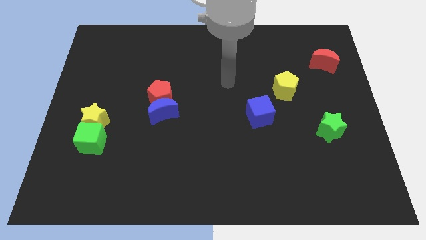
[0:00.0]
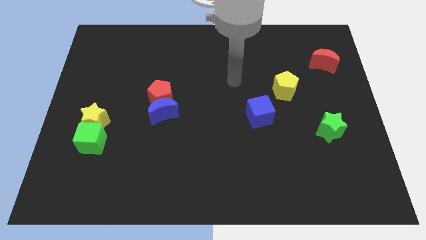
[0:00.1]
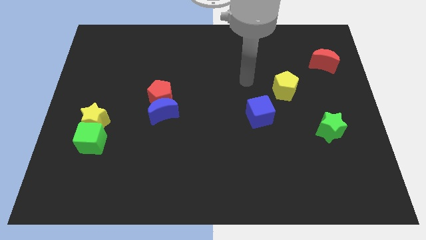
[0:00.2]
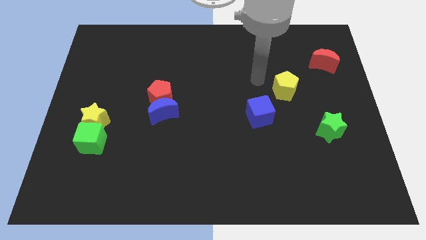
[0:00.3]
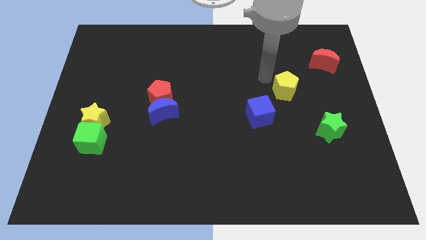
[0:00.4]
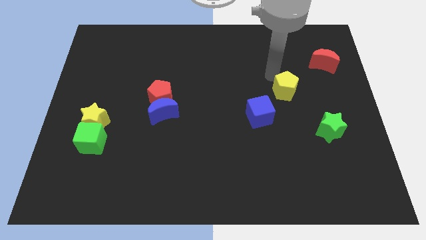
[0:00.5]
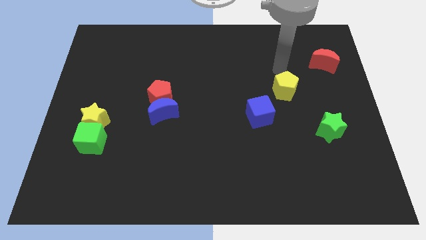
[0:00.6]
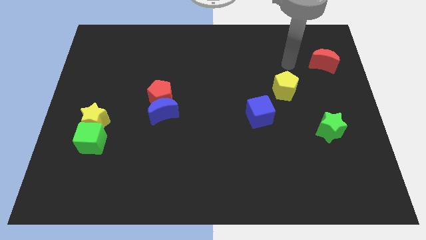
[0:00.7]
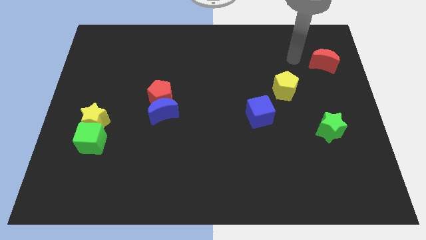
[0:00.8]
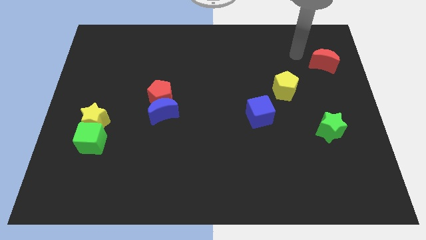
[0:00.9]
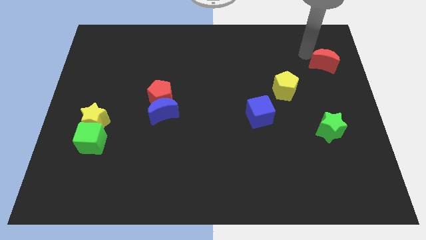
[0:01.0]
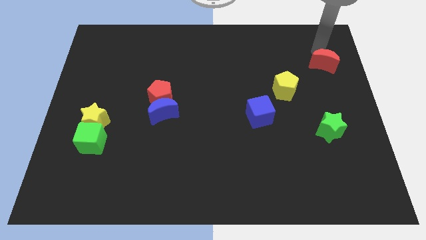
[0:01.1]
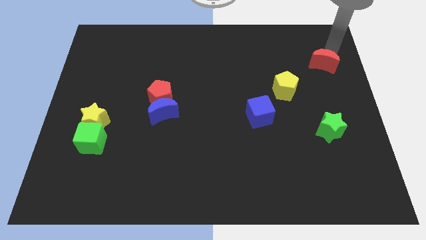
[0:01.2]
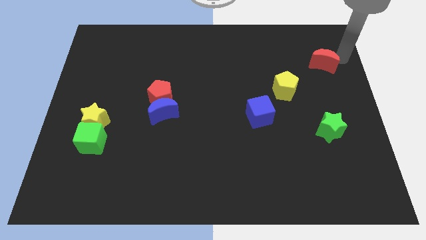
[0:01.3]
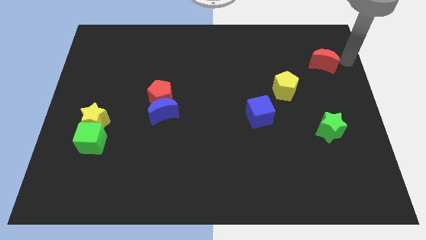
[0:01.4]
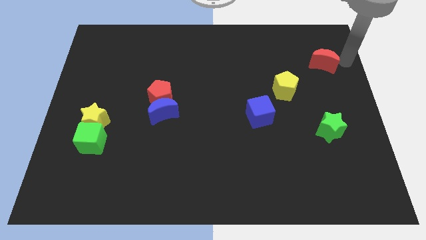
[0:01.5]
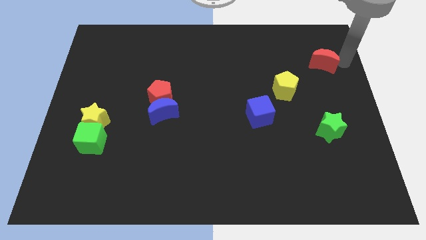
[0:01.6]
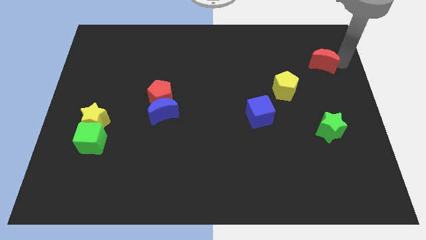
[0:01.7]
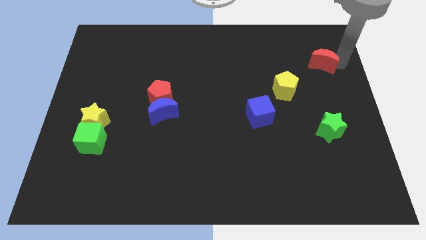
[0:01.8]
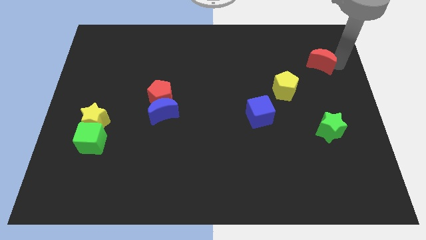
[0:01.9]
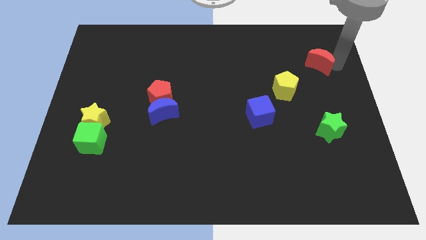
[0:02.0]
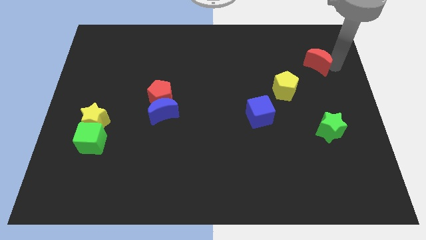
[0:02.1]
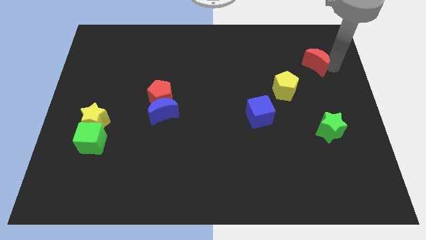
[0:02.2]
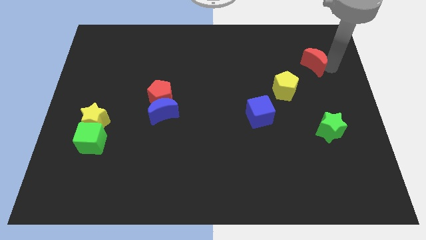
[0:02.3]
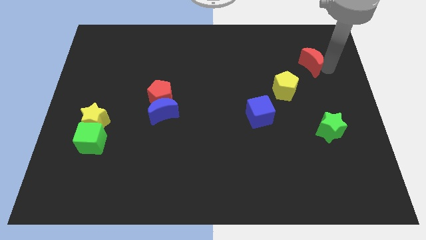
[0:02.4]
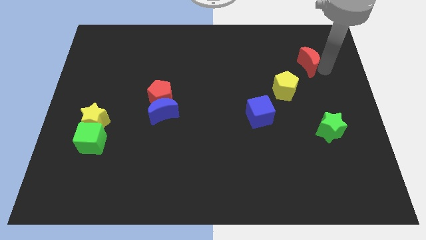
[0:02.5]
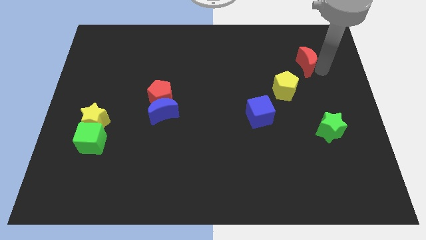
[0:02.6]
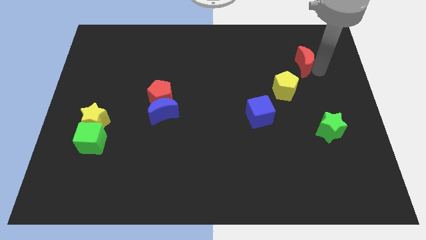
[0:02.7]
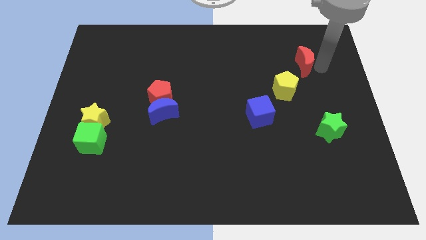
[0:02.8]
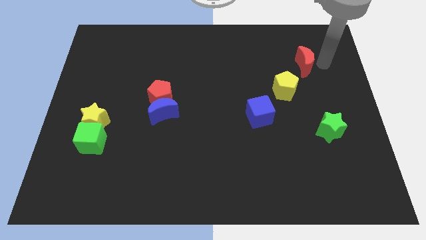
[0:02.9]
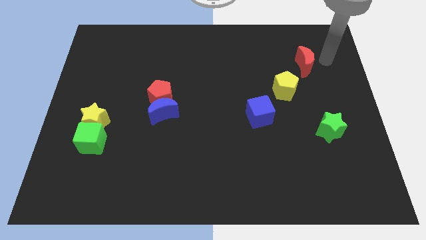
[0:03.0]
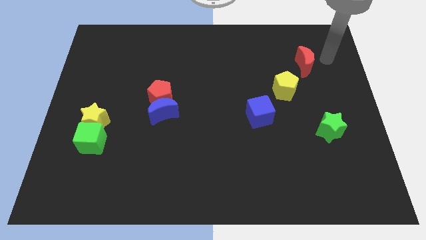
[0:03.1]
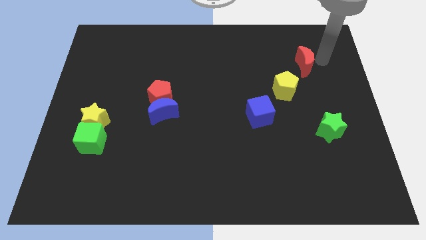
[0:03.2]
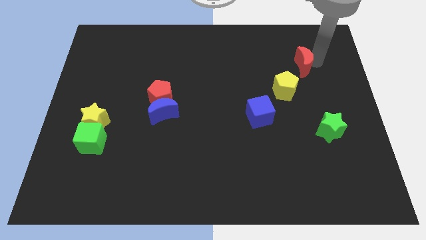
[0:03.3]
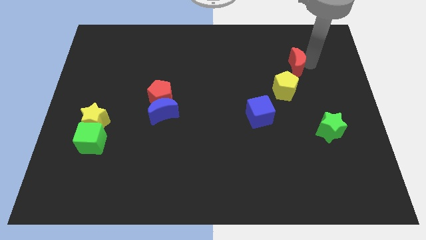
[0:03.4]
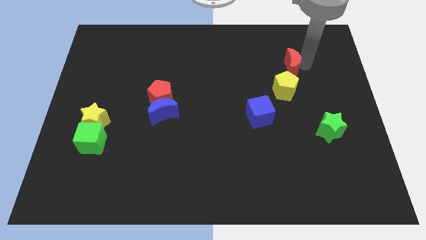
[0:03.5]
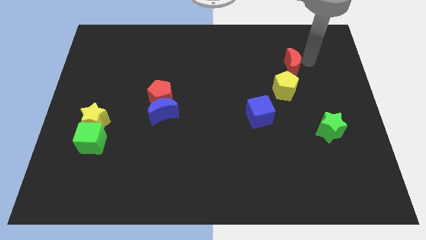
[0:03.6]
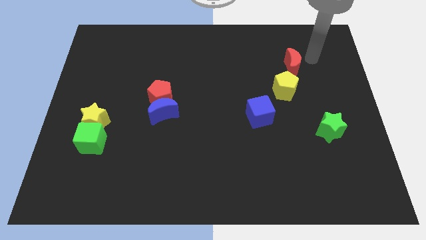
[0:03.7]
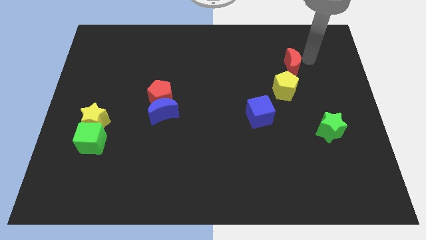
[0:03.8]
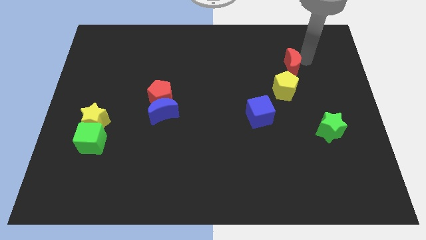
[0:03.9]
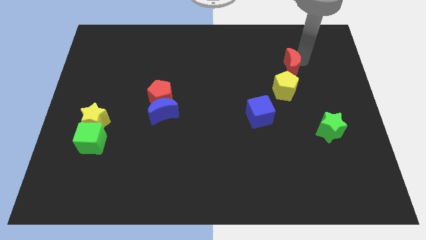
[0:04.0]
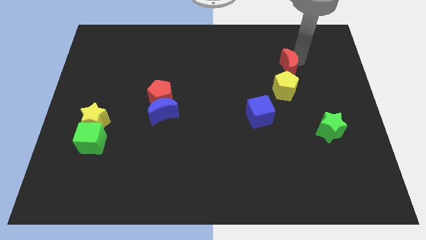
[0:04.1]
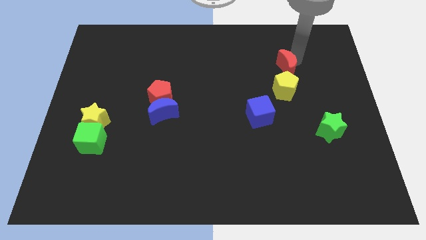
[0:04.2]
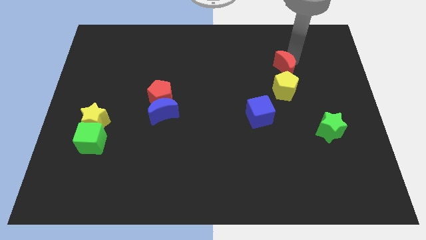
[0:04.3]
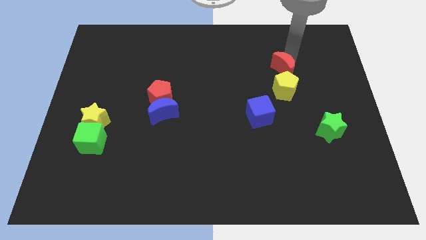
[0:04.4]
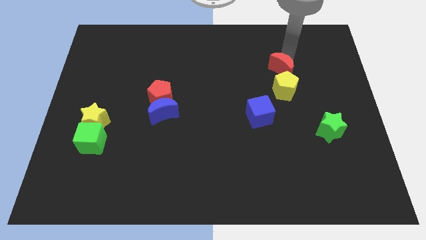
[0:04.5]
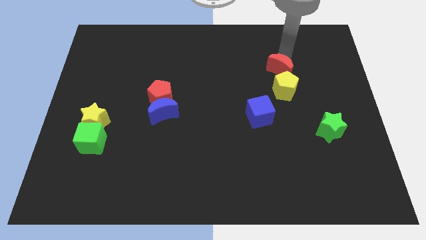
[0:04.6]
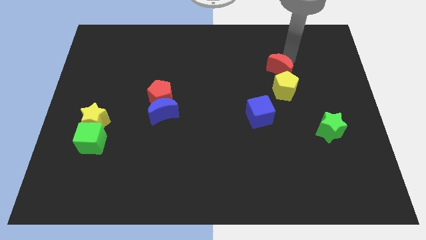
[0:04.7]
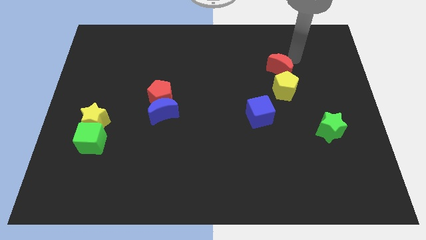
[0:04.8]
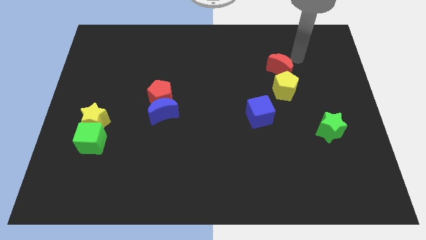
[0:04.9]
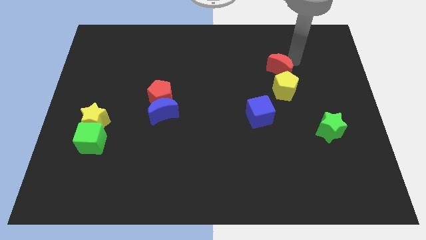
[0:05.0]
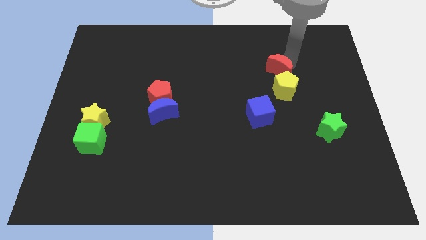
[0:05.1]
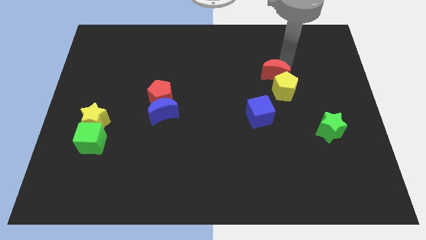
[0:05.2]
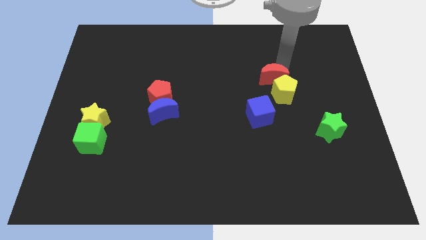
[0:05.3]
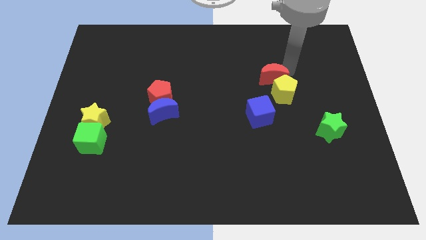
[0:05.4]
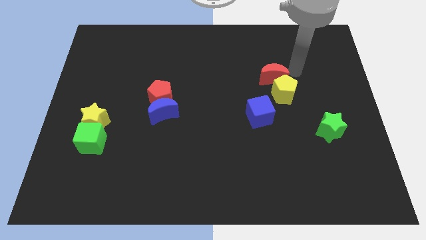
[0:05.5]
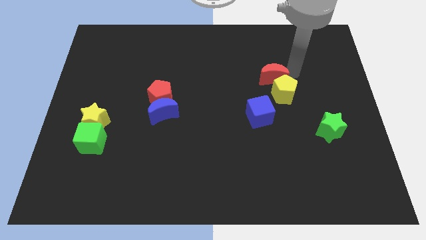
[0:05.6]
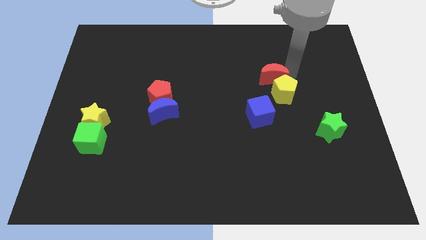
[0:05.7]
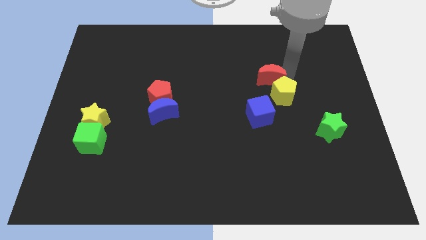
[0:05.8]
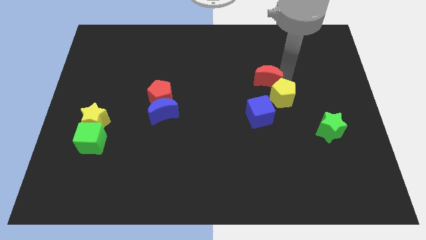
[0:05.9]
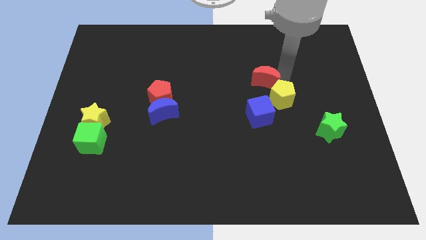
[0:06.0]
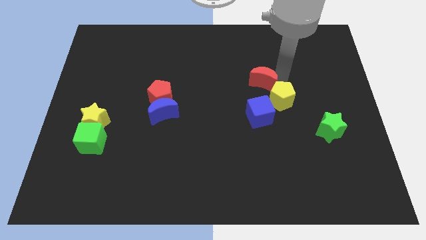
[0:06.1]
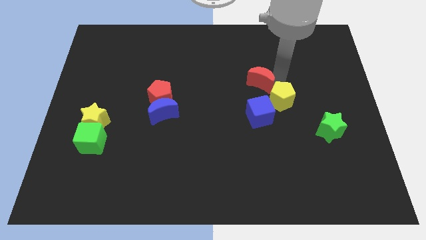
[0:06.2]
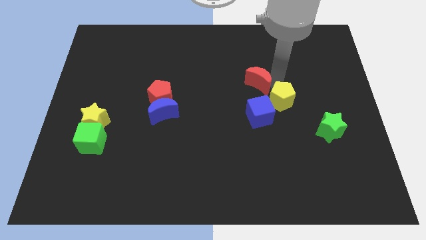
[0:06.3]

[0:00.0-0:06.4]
push the red moon to the center of the board

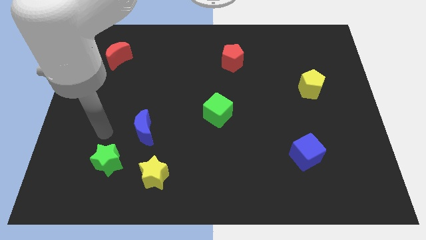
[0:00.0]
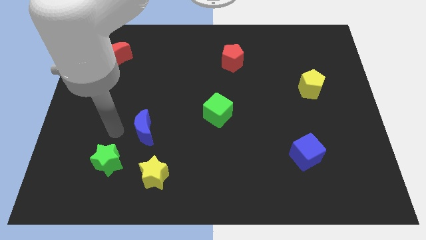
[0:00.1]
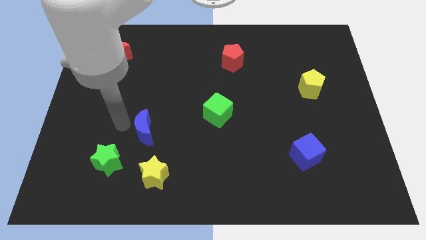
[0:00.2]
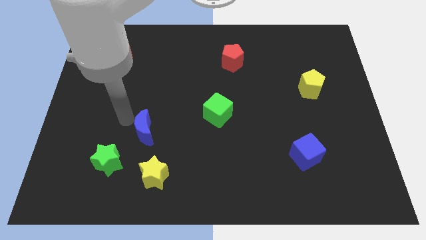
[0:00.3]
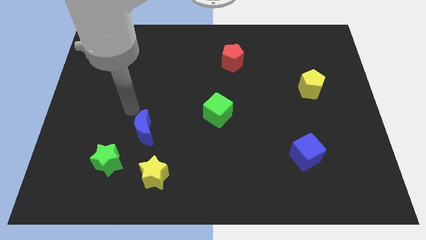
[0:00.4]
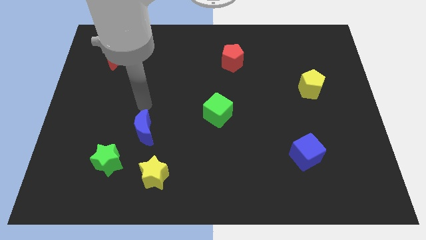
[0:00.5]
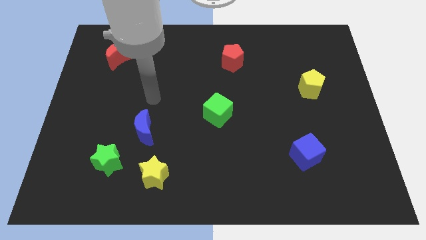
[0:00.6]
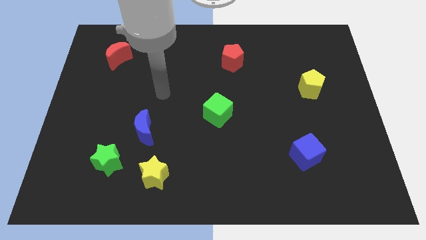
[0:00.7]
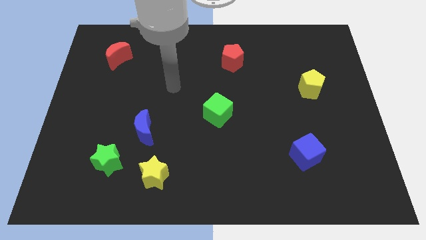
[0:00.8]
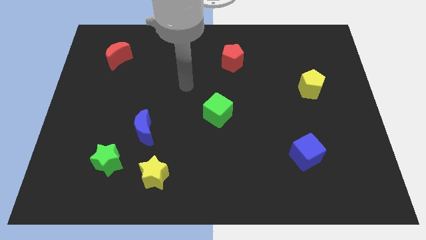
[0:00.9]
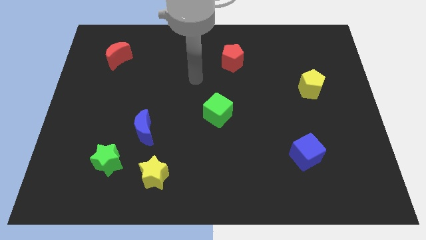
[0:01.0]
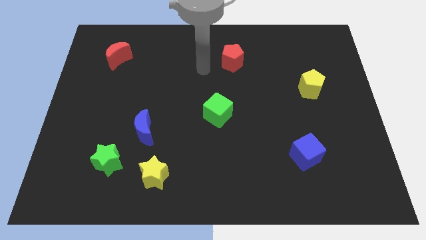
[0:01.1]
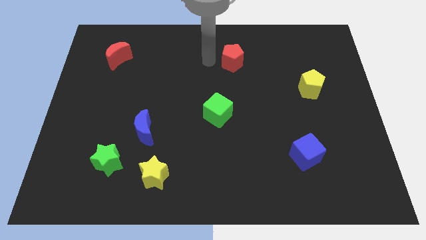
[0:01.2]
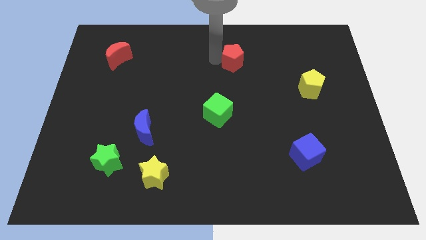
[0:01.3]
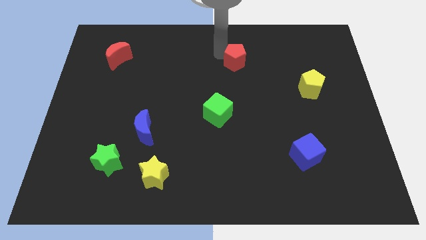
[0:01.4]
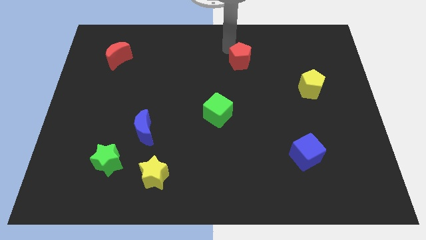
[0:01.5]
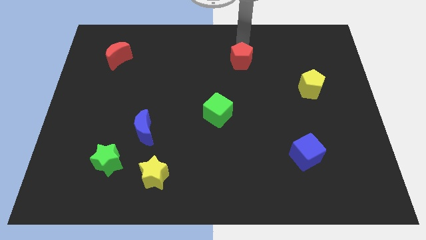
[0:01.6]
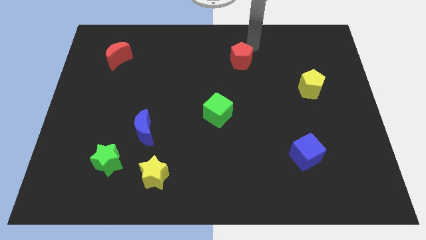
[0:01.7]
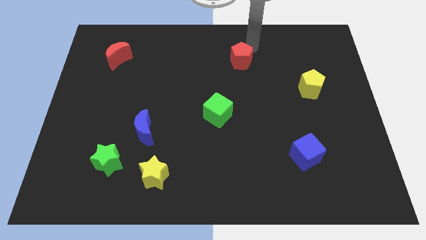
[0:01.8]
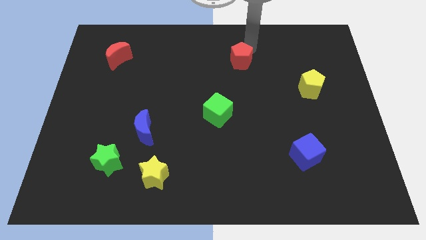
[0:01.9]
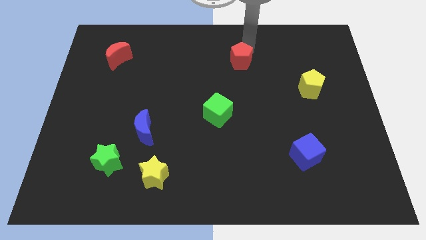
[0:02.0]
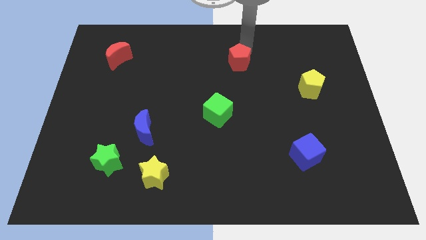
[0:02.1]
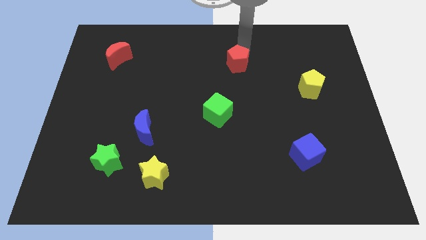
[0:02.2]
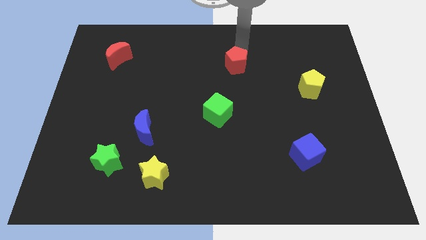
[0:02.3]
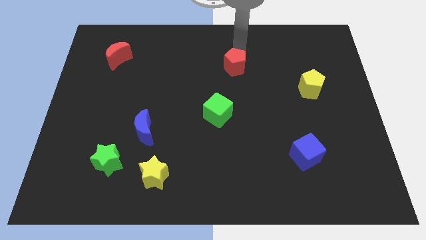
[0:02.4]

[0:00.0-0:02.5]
move the red pentagon to the center
